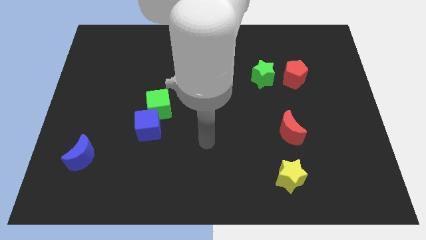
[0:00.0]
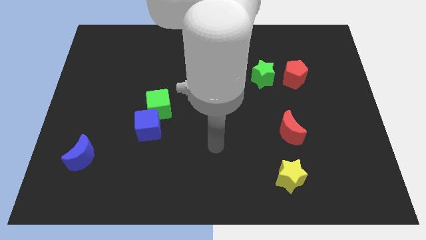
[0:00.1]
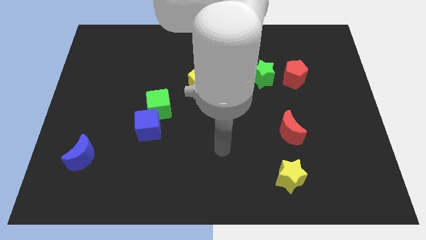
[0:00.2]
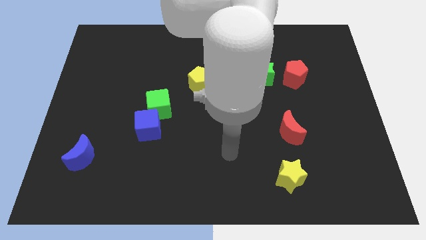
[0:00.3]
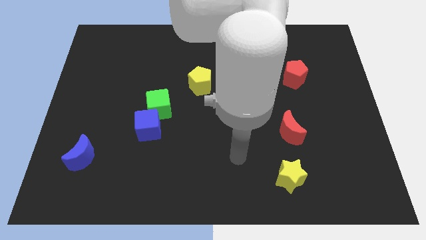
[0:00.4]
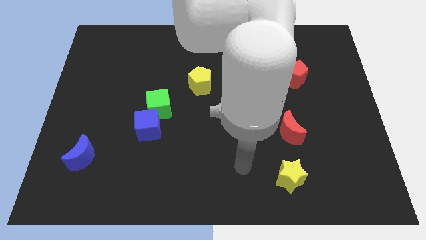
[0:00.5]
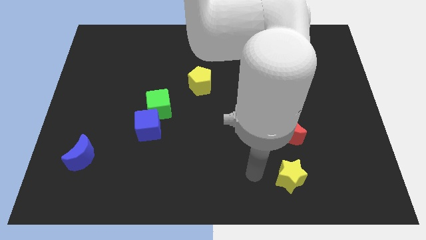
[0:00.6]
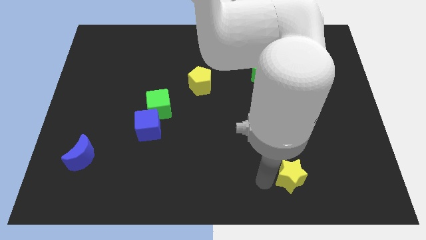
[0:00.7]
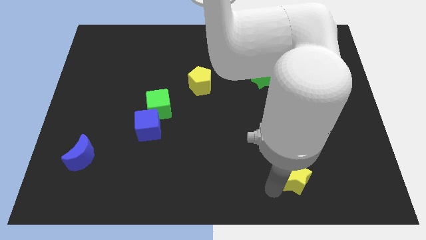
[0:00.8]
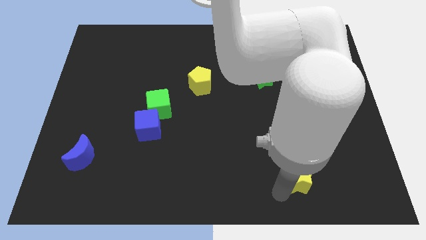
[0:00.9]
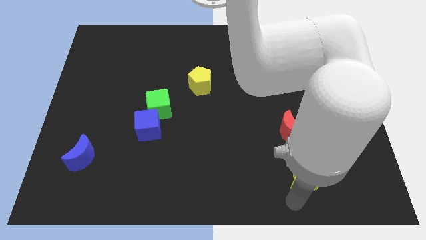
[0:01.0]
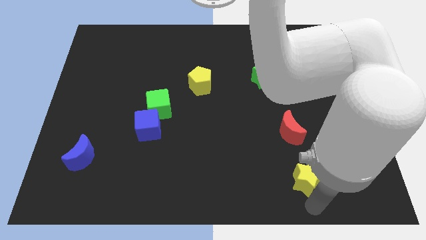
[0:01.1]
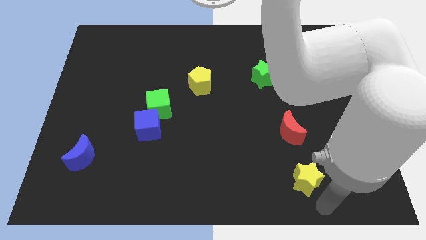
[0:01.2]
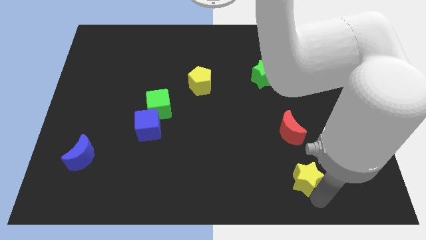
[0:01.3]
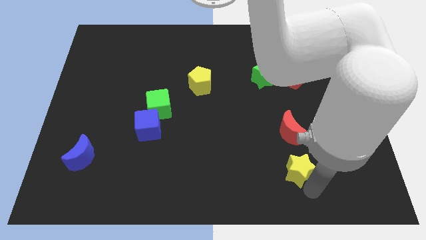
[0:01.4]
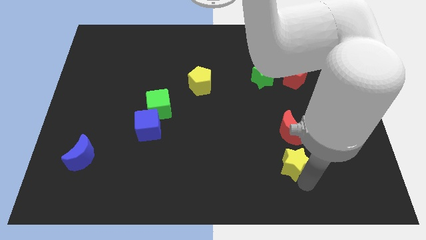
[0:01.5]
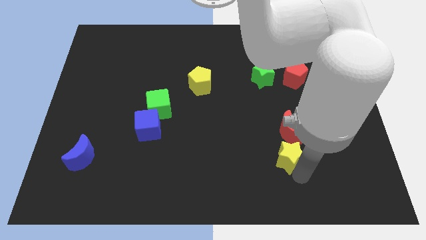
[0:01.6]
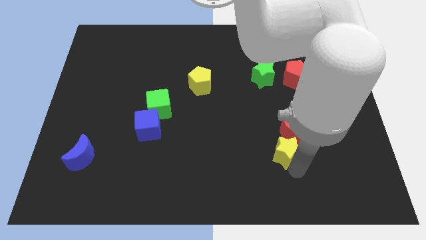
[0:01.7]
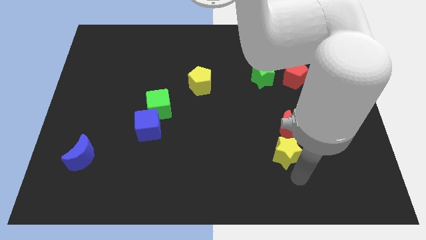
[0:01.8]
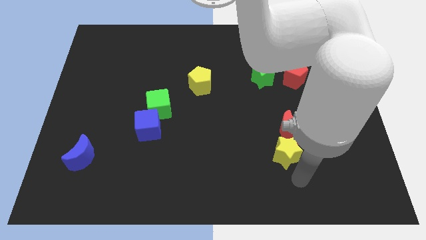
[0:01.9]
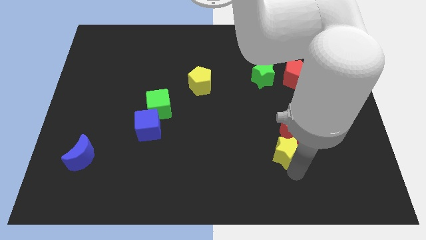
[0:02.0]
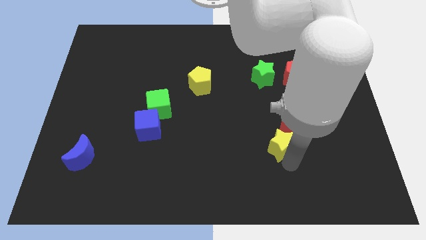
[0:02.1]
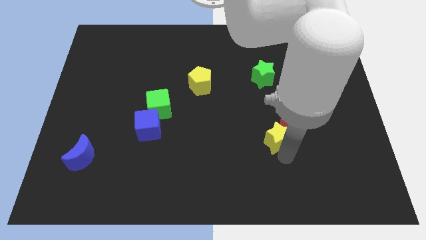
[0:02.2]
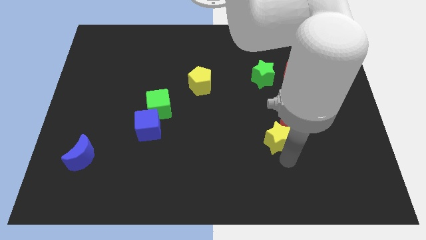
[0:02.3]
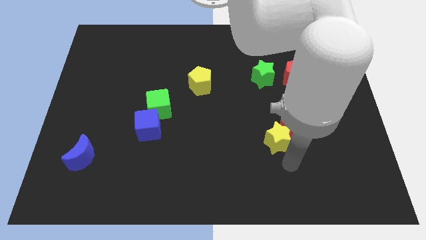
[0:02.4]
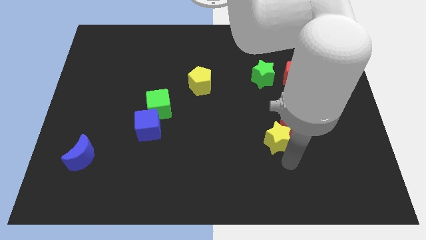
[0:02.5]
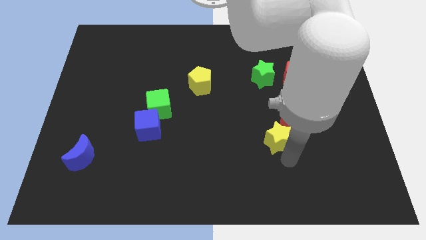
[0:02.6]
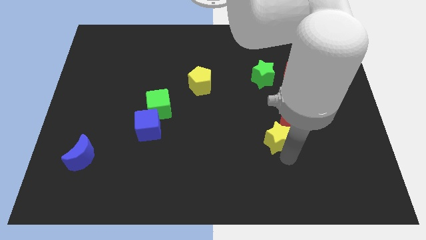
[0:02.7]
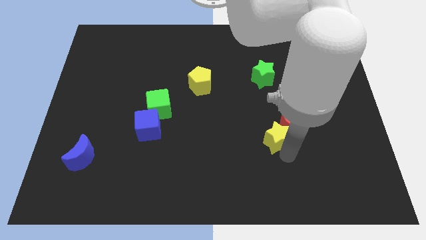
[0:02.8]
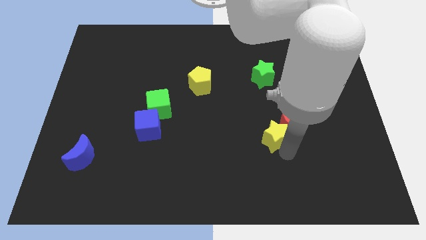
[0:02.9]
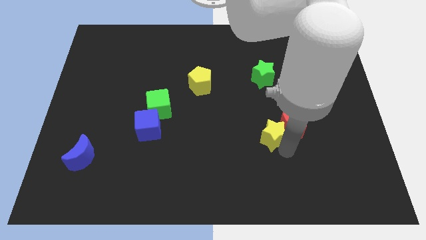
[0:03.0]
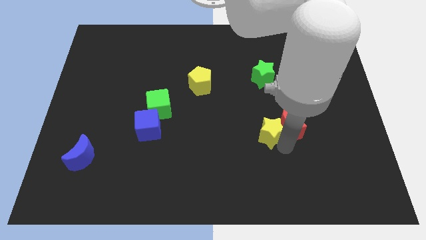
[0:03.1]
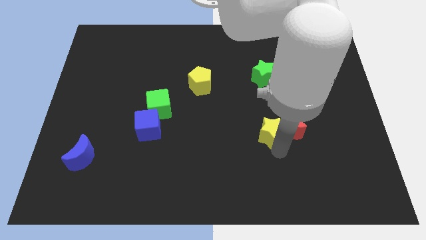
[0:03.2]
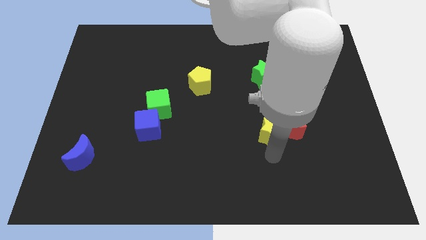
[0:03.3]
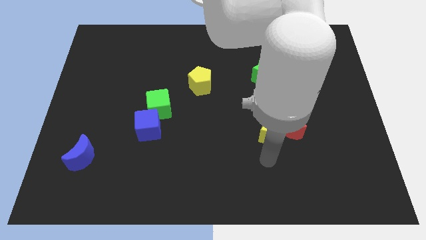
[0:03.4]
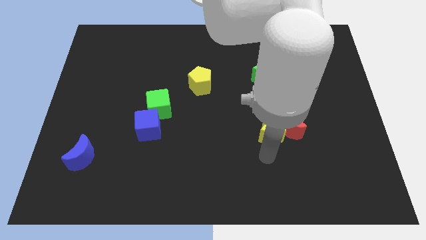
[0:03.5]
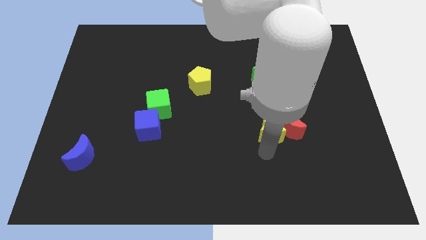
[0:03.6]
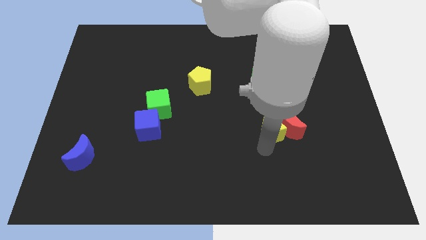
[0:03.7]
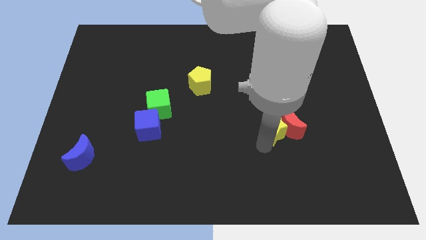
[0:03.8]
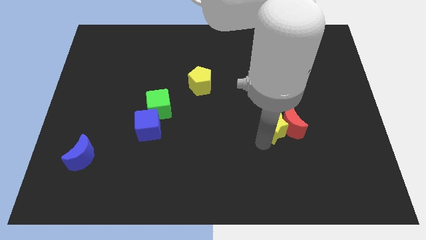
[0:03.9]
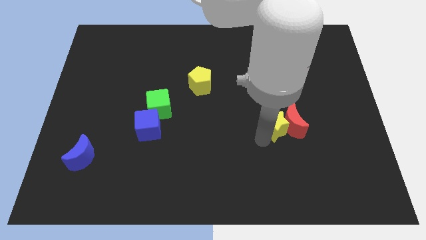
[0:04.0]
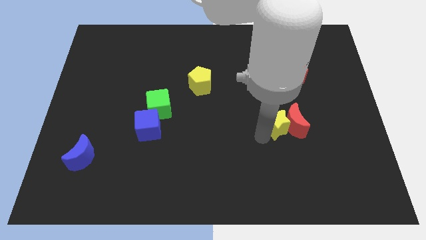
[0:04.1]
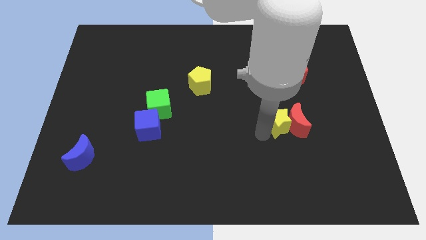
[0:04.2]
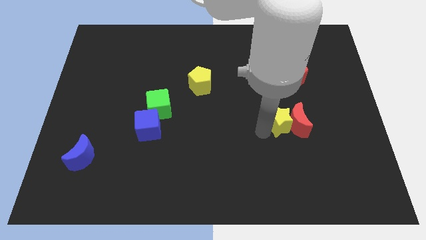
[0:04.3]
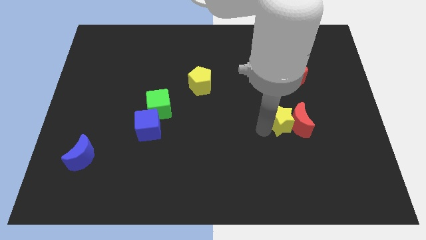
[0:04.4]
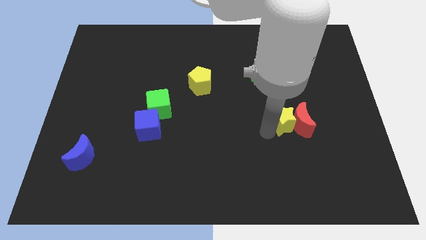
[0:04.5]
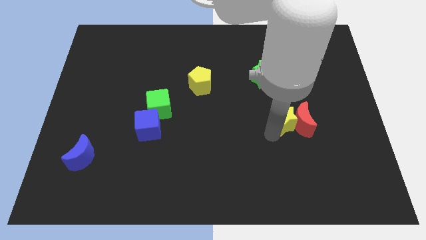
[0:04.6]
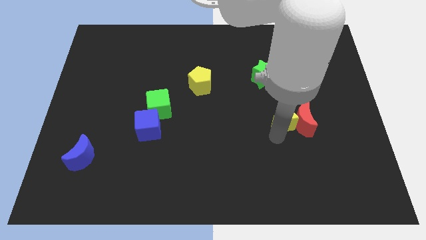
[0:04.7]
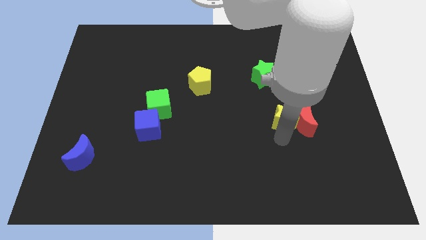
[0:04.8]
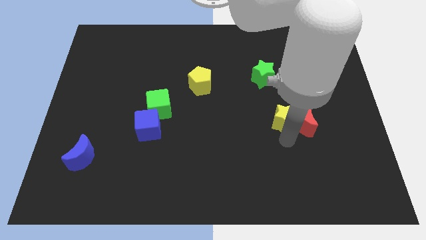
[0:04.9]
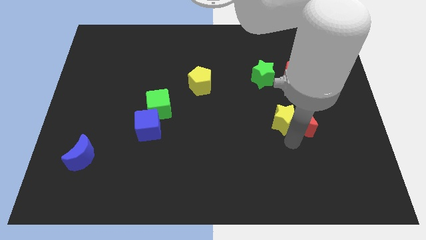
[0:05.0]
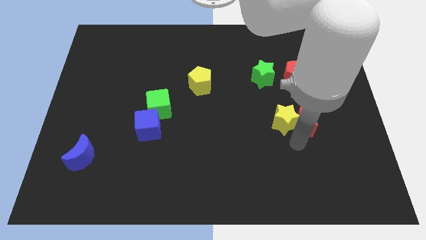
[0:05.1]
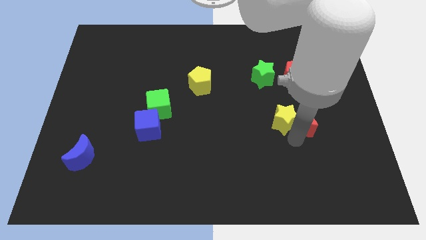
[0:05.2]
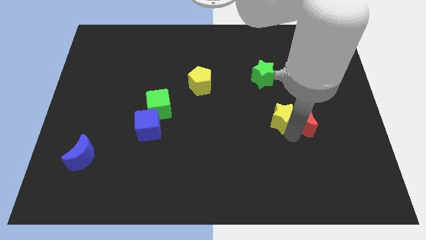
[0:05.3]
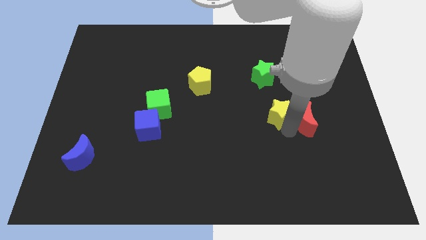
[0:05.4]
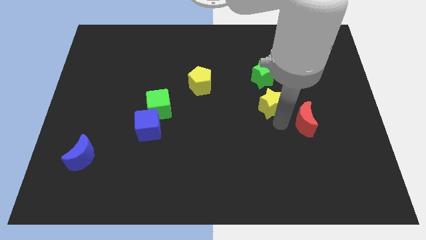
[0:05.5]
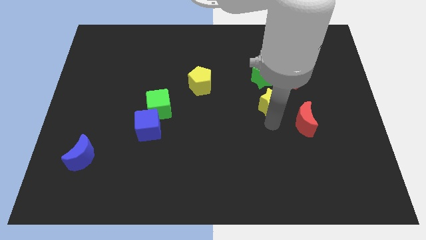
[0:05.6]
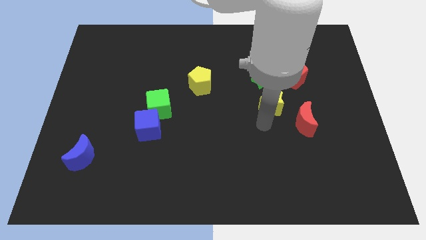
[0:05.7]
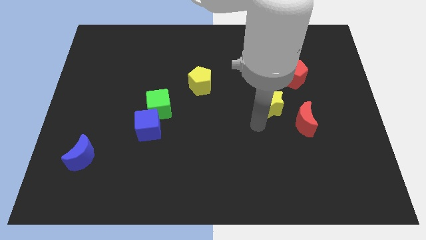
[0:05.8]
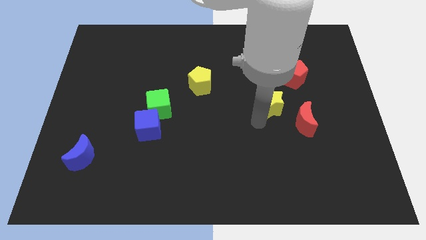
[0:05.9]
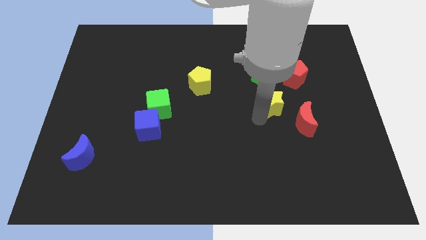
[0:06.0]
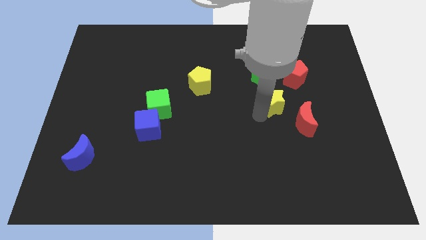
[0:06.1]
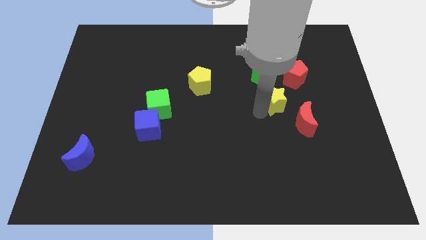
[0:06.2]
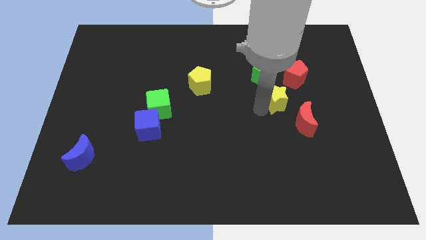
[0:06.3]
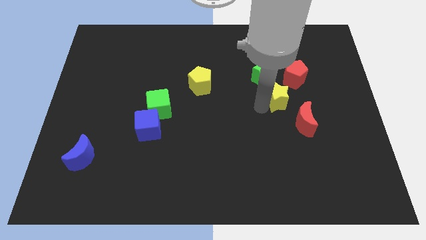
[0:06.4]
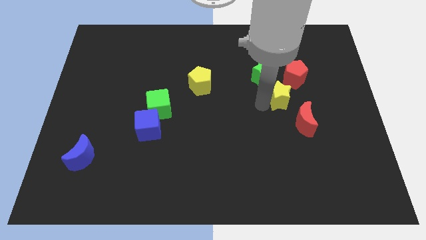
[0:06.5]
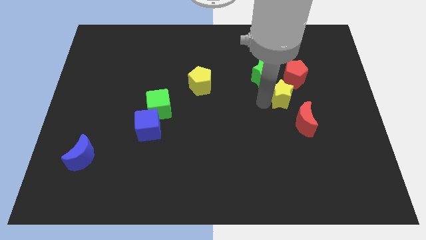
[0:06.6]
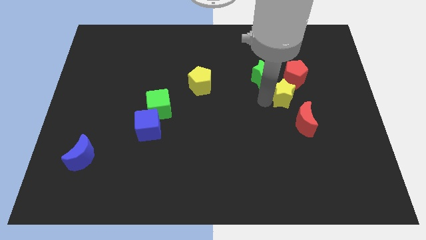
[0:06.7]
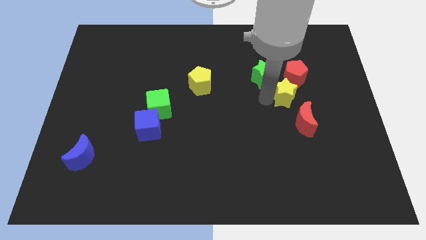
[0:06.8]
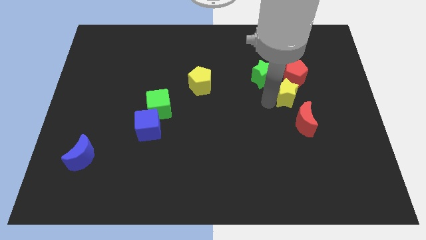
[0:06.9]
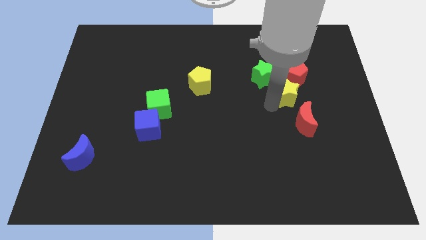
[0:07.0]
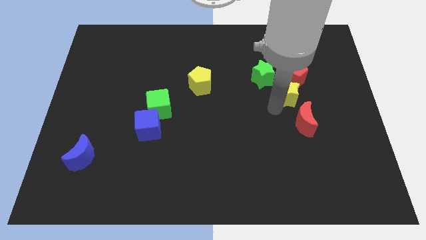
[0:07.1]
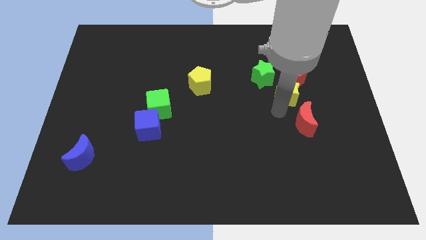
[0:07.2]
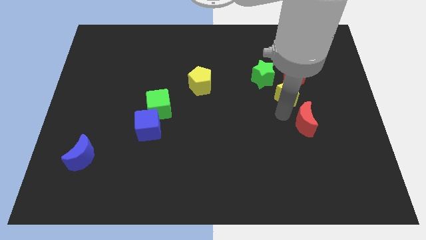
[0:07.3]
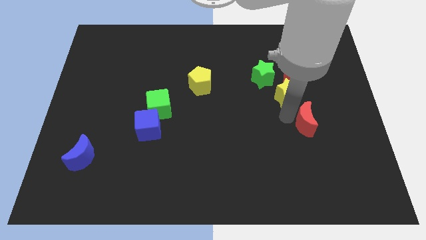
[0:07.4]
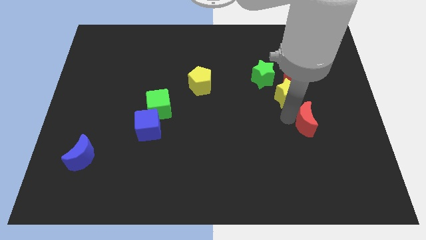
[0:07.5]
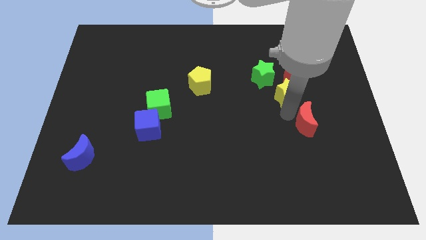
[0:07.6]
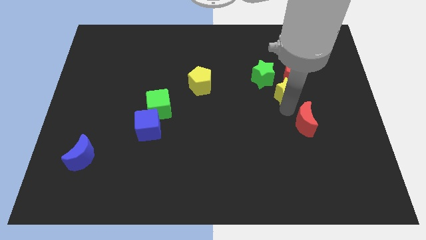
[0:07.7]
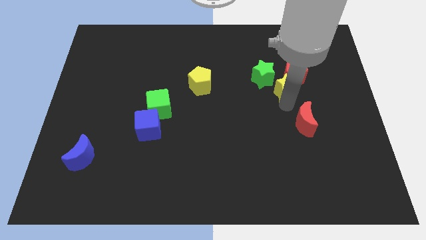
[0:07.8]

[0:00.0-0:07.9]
slide the yellow star next to the red pentagon
